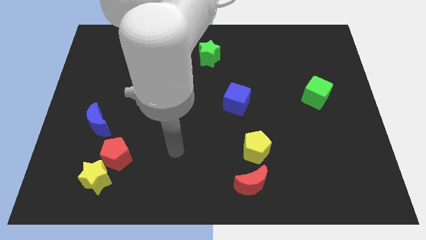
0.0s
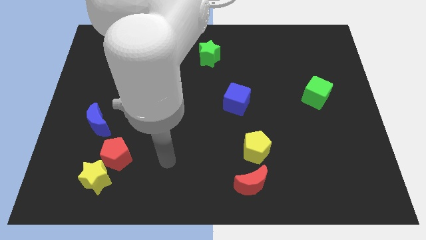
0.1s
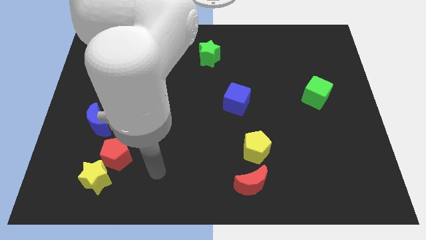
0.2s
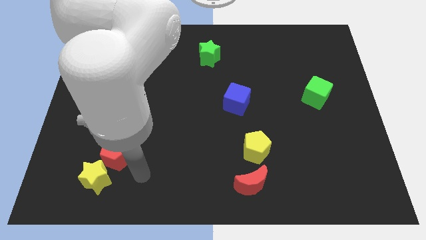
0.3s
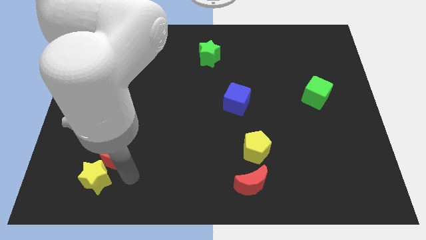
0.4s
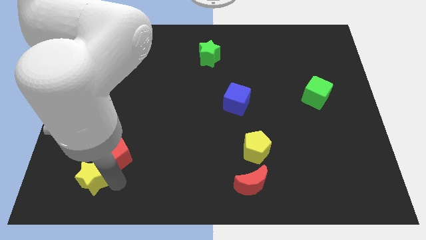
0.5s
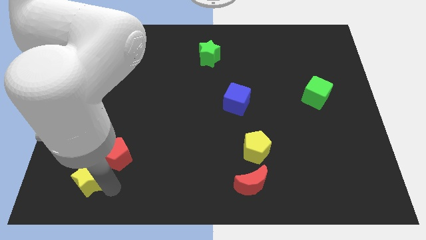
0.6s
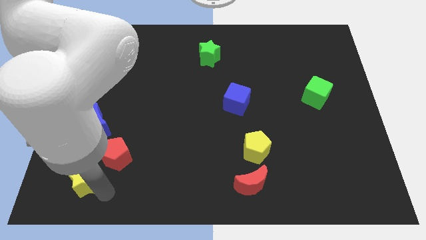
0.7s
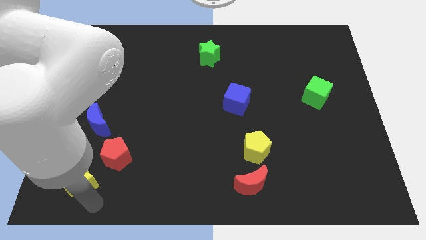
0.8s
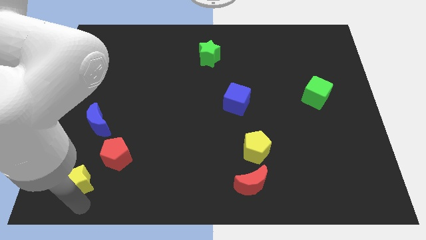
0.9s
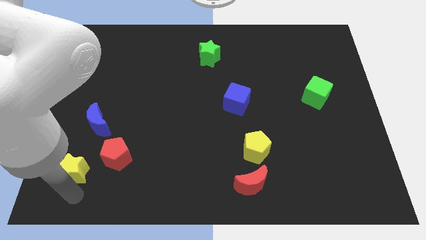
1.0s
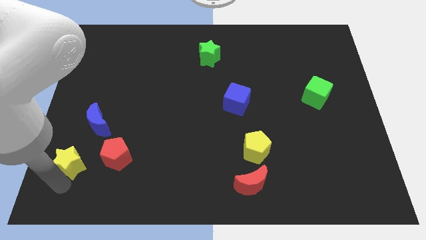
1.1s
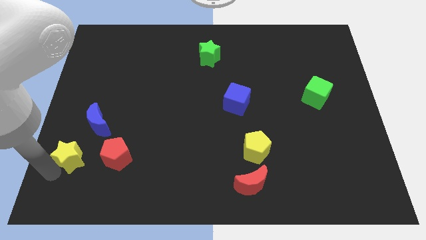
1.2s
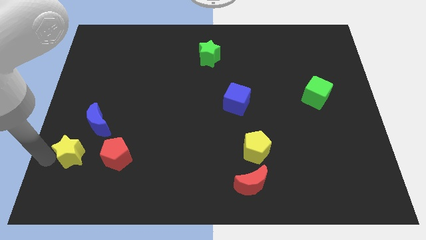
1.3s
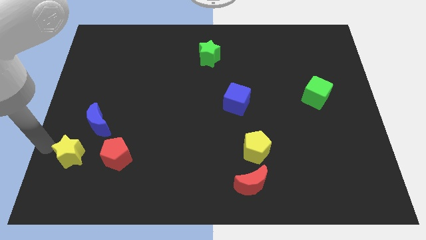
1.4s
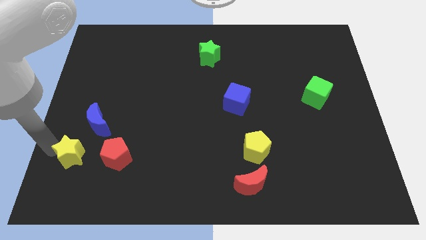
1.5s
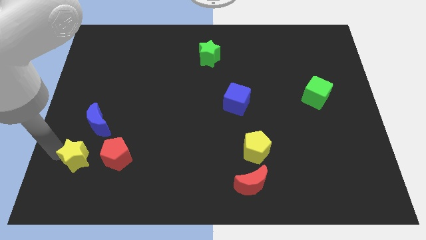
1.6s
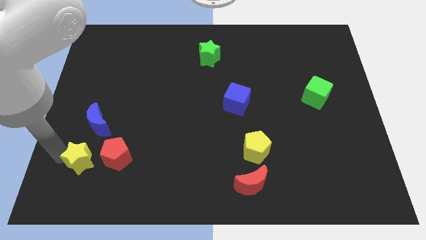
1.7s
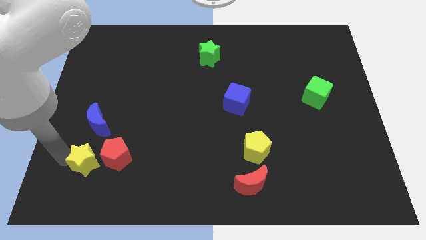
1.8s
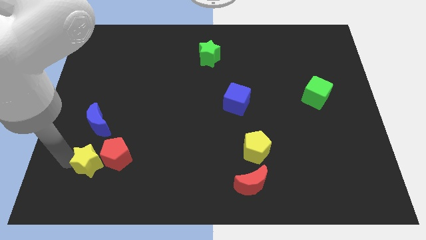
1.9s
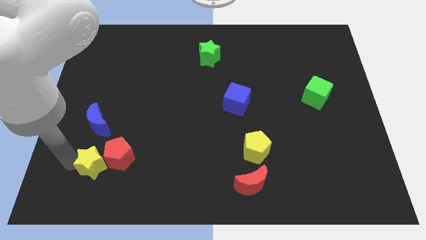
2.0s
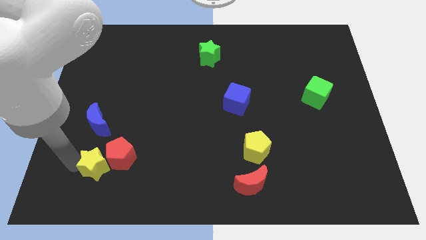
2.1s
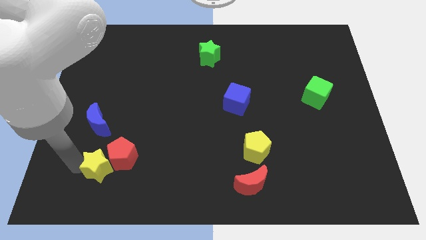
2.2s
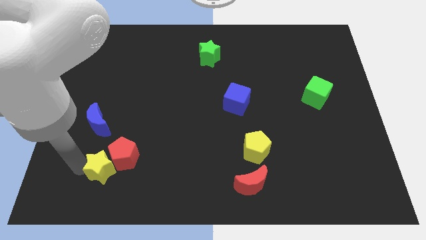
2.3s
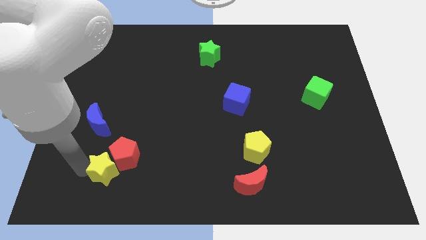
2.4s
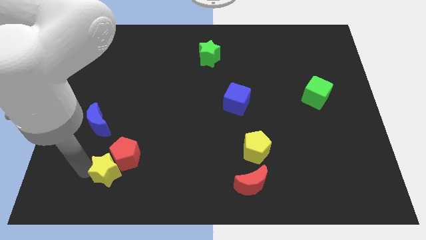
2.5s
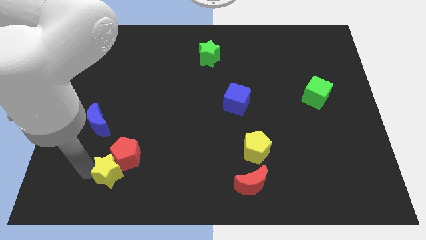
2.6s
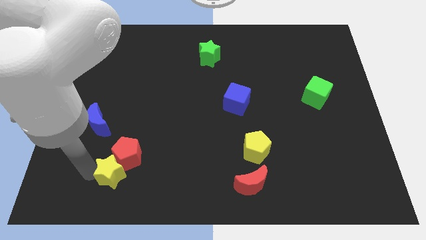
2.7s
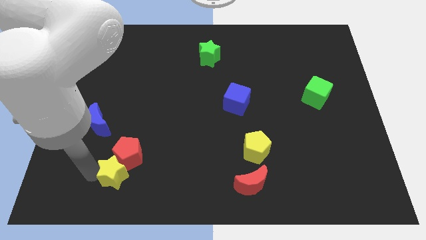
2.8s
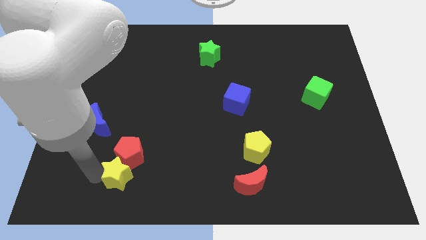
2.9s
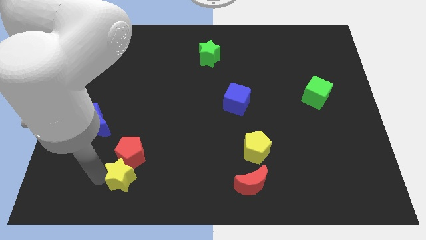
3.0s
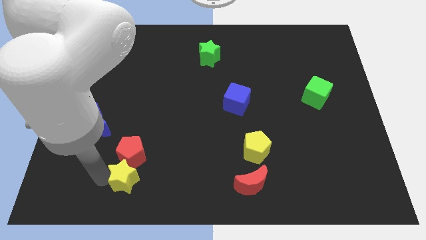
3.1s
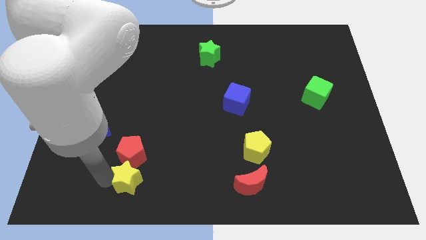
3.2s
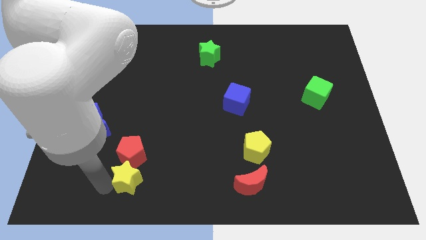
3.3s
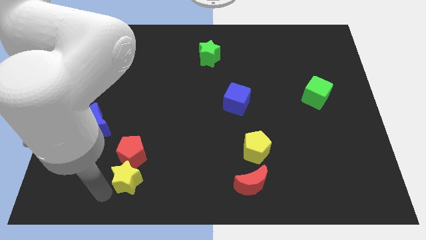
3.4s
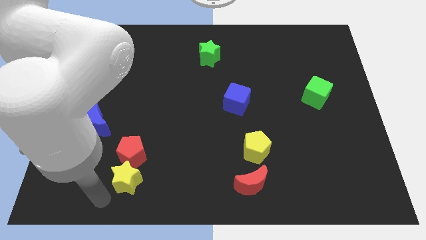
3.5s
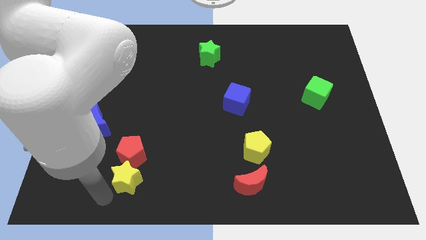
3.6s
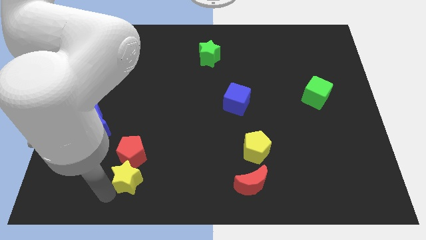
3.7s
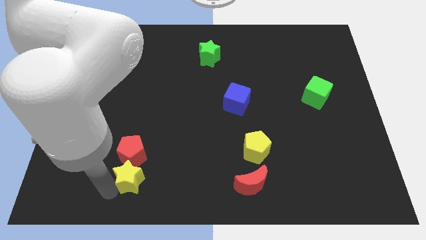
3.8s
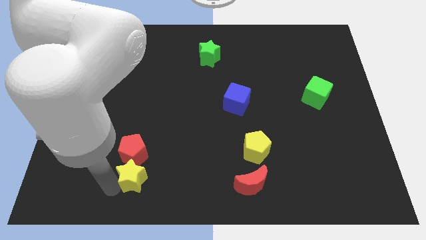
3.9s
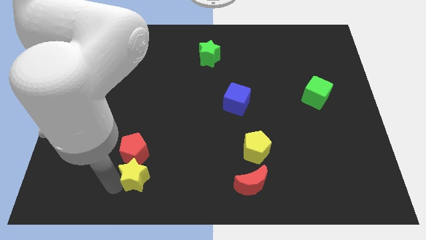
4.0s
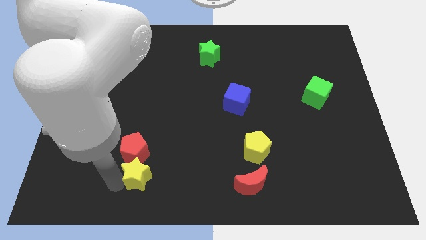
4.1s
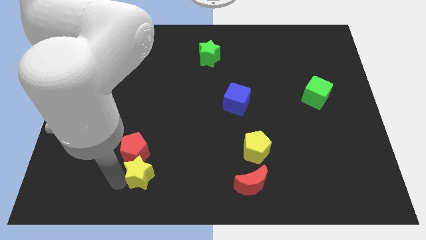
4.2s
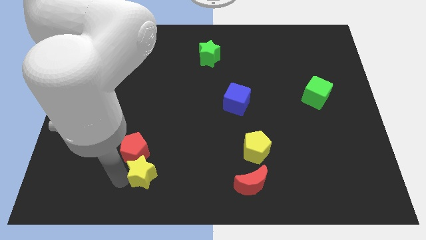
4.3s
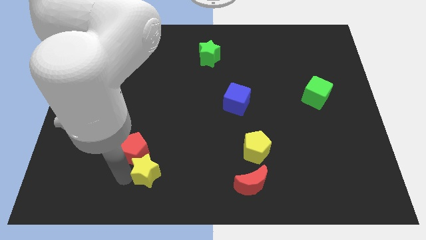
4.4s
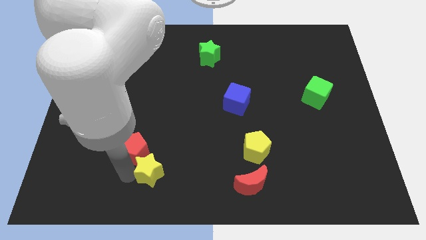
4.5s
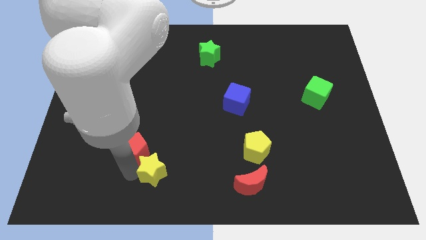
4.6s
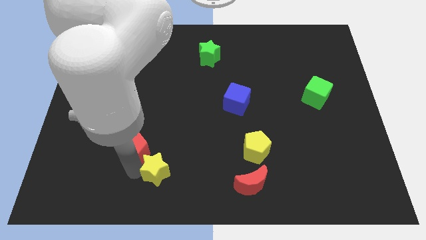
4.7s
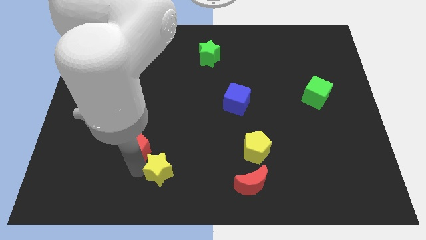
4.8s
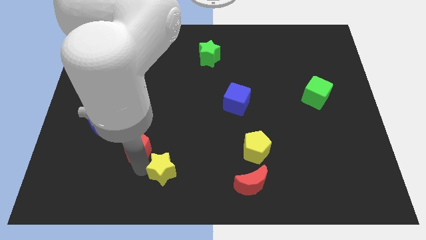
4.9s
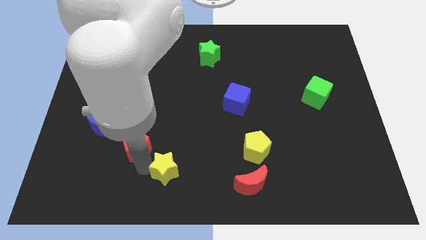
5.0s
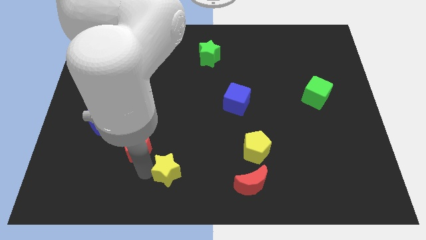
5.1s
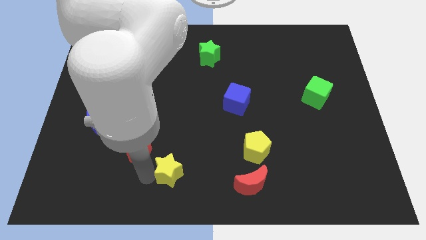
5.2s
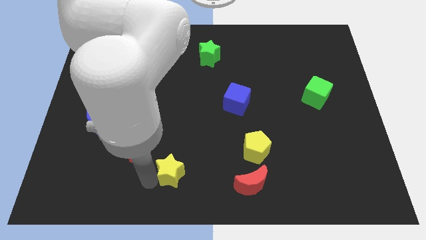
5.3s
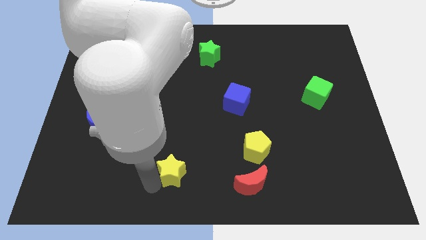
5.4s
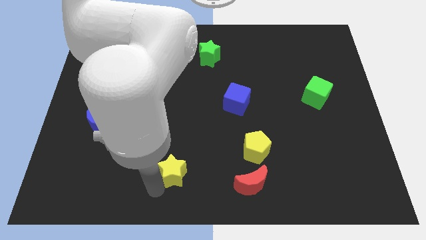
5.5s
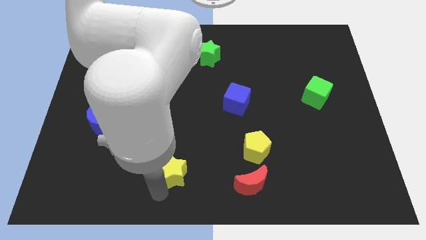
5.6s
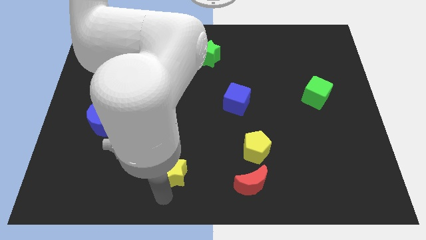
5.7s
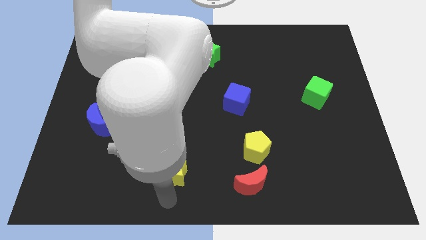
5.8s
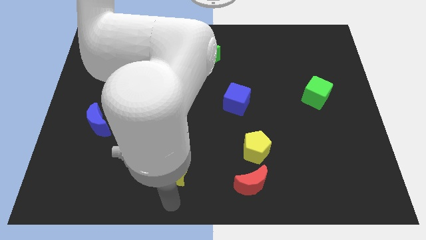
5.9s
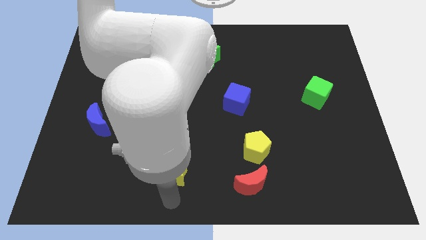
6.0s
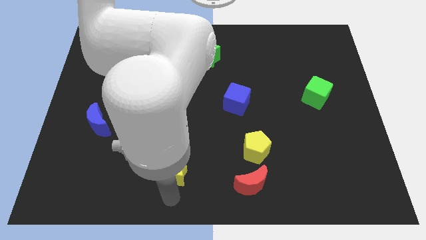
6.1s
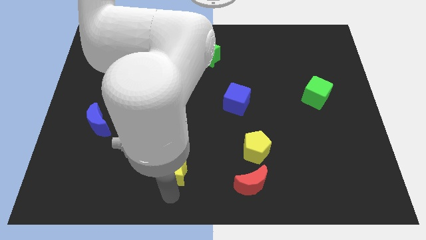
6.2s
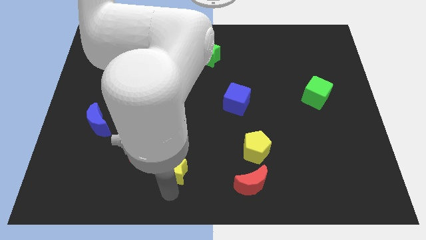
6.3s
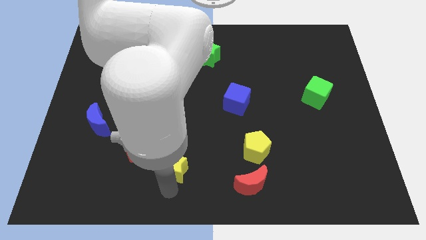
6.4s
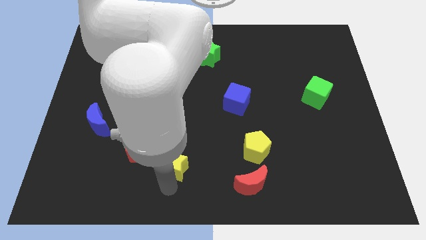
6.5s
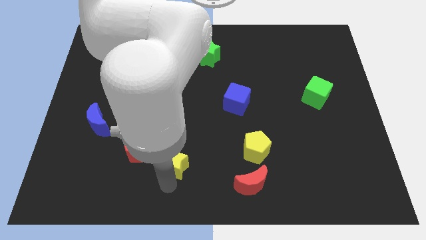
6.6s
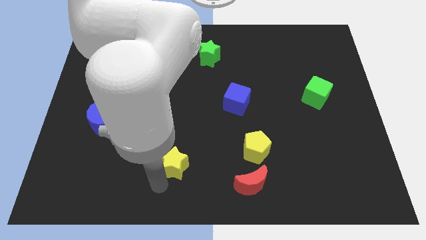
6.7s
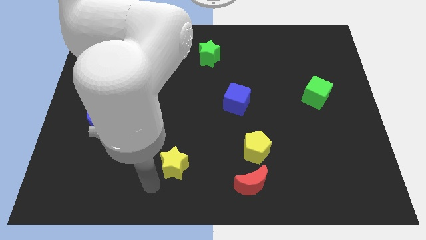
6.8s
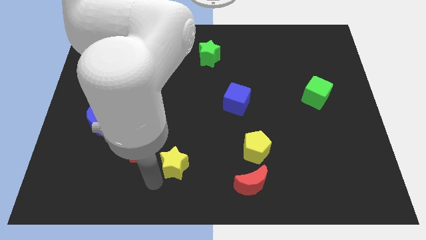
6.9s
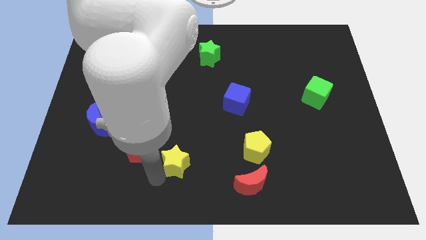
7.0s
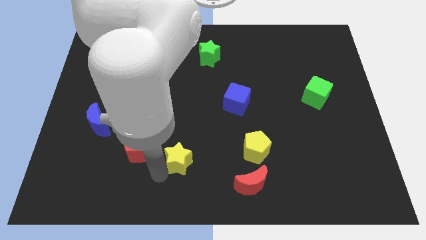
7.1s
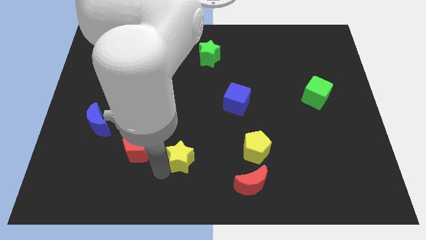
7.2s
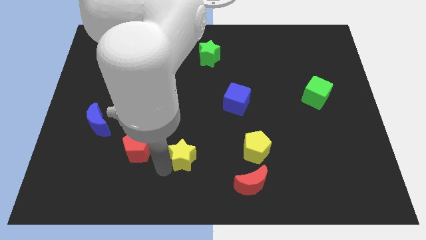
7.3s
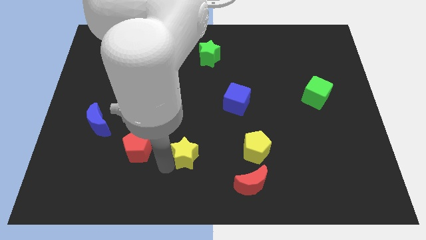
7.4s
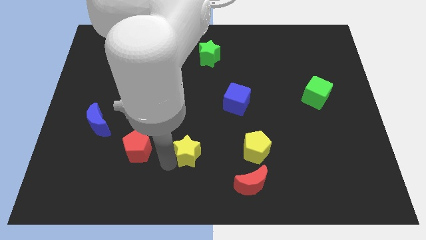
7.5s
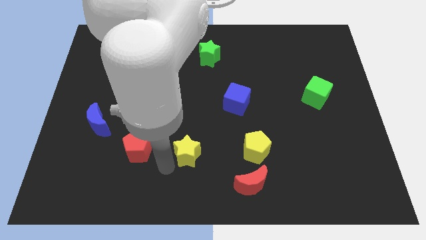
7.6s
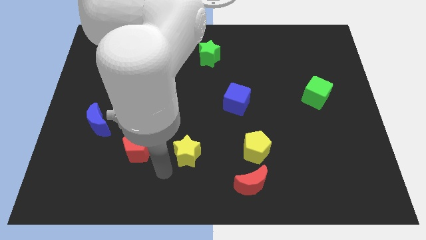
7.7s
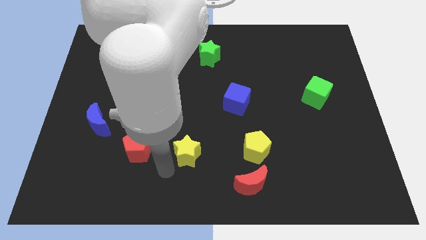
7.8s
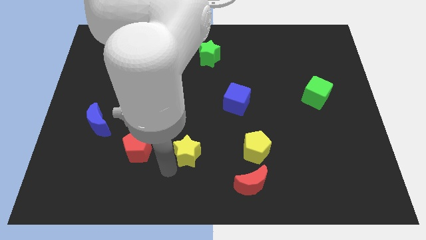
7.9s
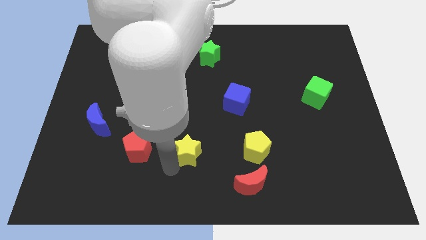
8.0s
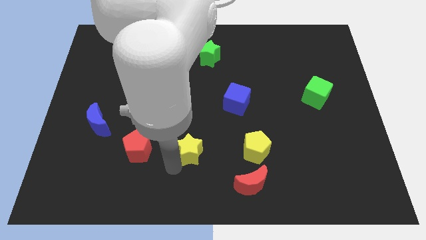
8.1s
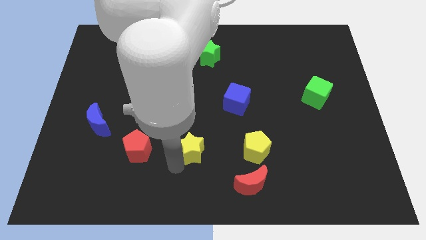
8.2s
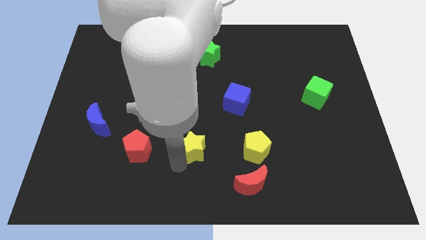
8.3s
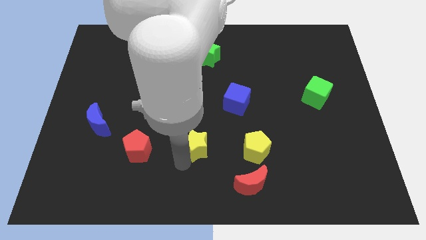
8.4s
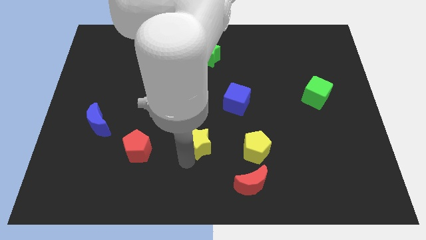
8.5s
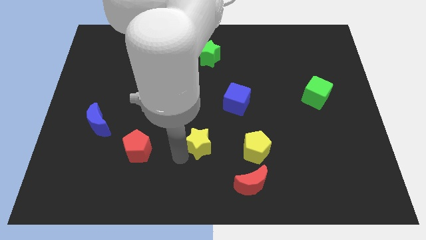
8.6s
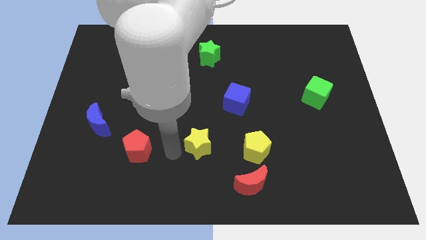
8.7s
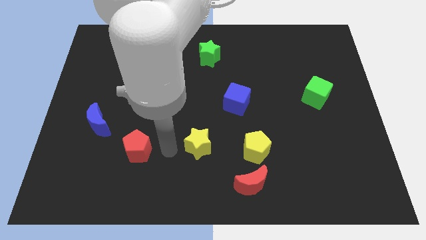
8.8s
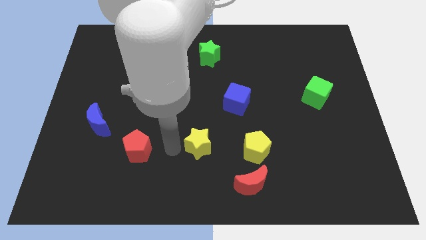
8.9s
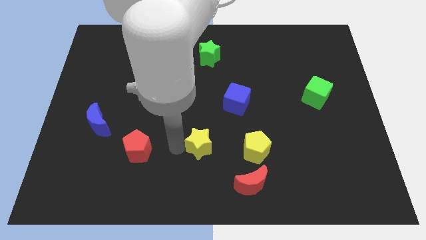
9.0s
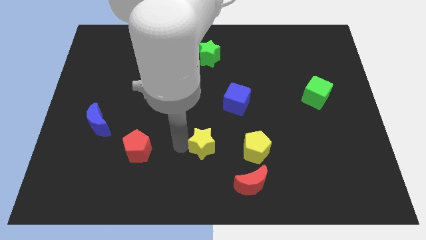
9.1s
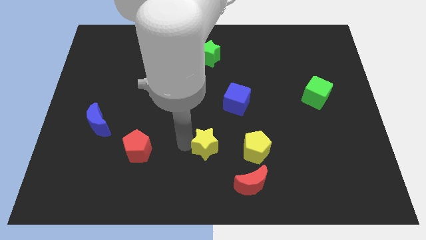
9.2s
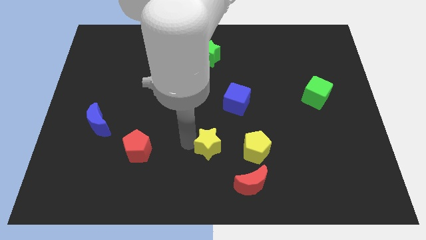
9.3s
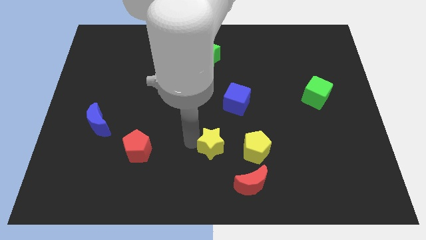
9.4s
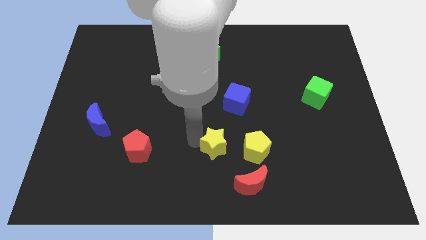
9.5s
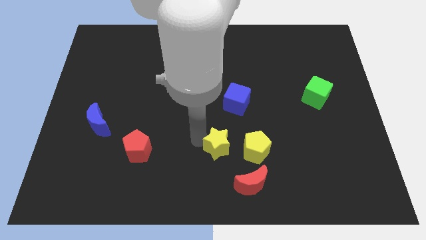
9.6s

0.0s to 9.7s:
push the yellow star below the blue cube
